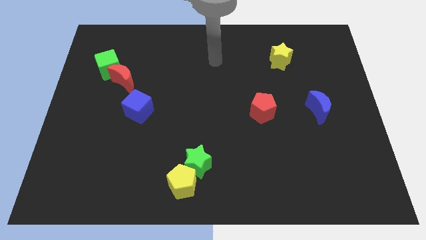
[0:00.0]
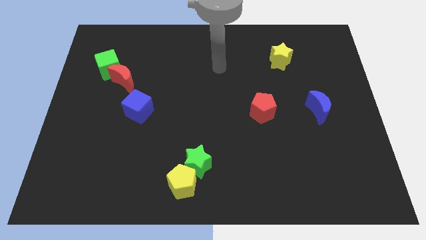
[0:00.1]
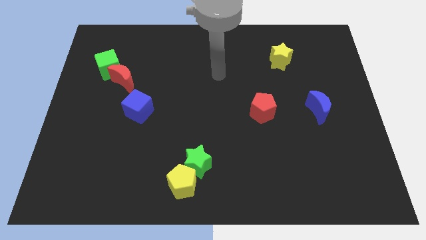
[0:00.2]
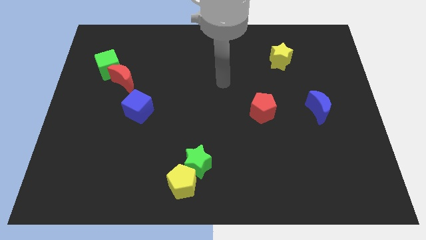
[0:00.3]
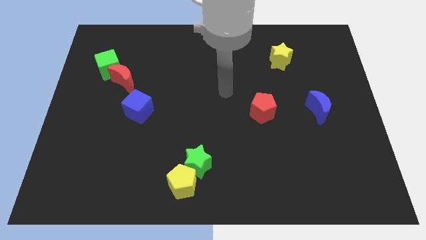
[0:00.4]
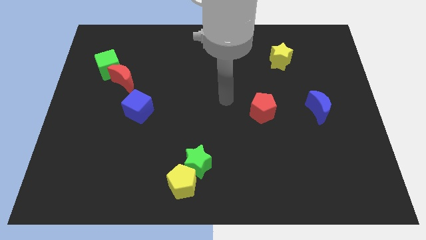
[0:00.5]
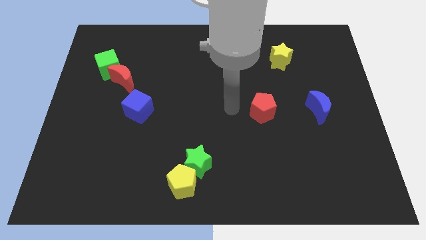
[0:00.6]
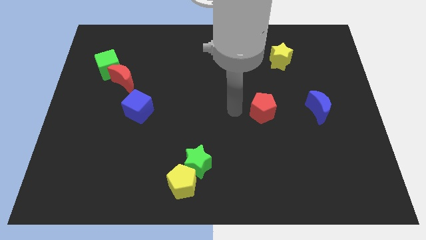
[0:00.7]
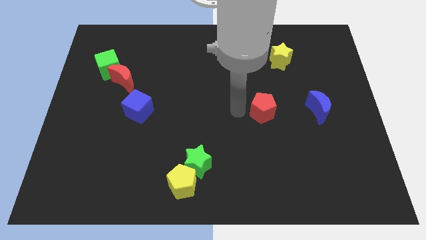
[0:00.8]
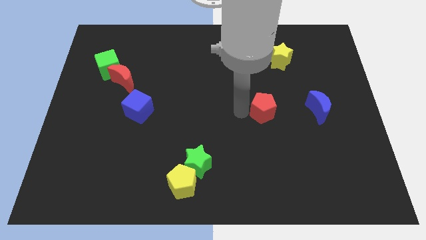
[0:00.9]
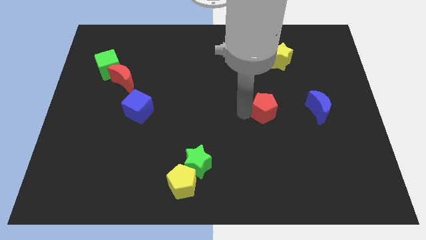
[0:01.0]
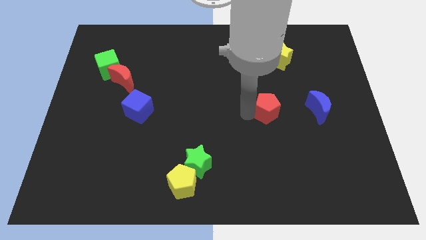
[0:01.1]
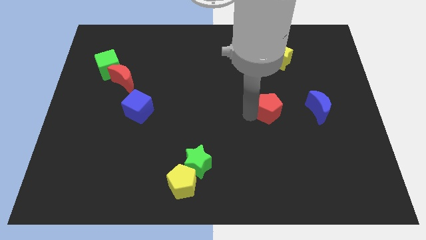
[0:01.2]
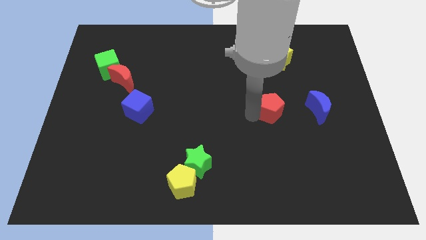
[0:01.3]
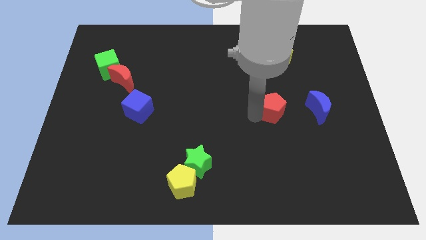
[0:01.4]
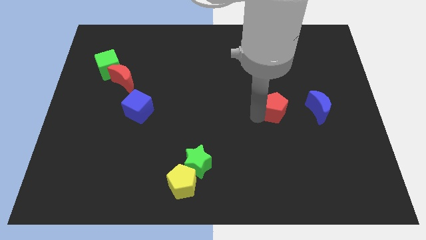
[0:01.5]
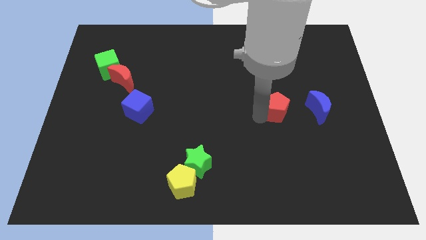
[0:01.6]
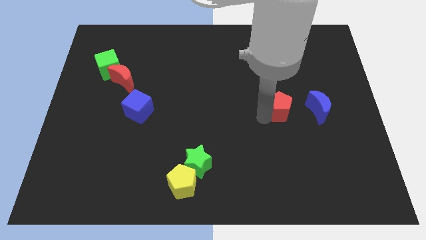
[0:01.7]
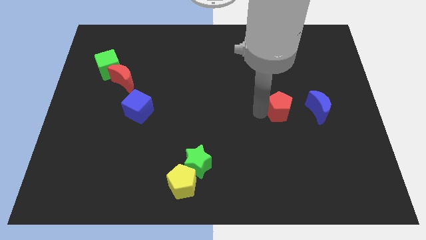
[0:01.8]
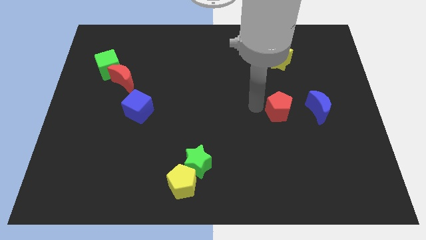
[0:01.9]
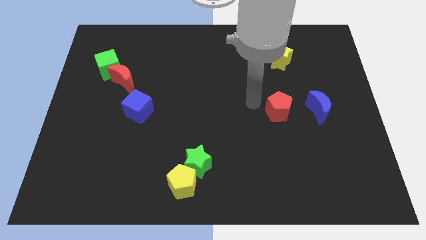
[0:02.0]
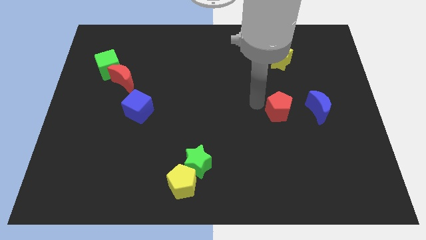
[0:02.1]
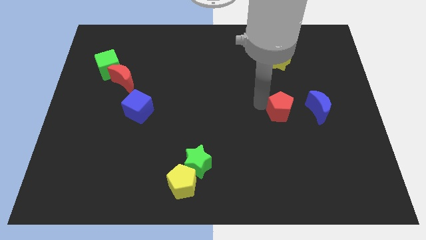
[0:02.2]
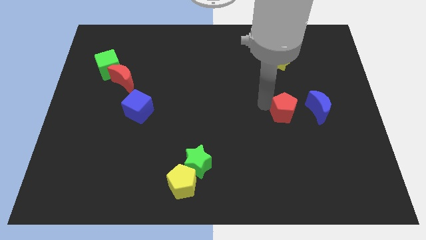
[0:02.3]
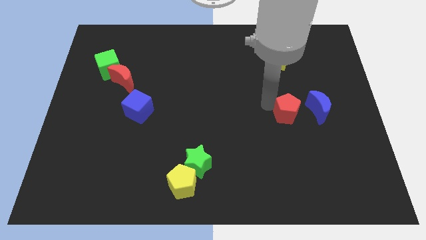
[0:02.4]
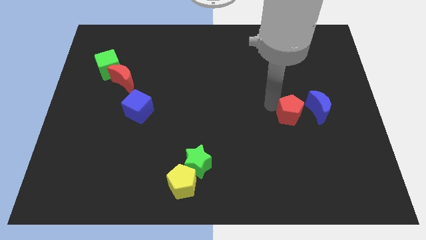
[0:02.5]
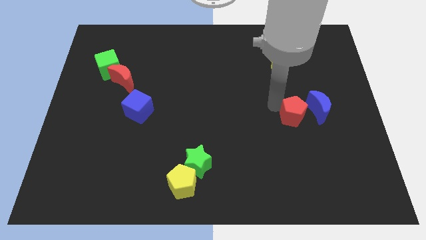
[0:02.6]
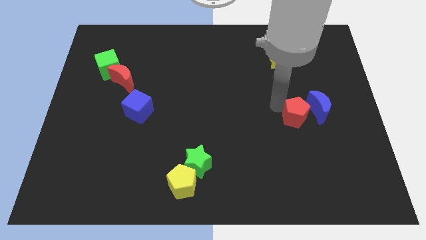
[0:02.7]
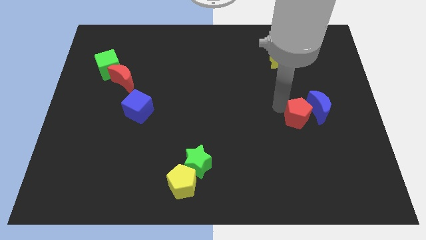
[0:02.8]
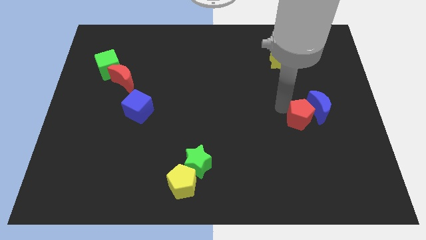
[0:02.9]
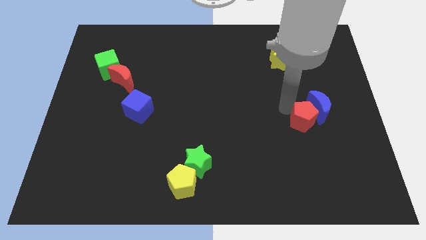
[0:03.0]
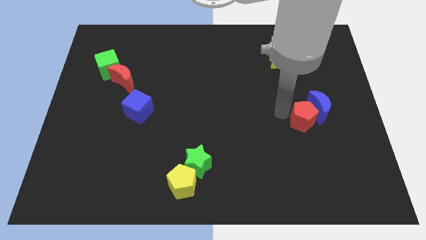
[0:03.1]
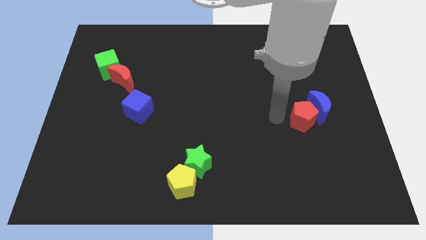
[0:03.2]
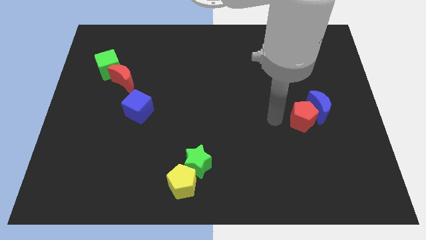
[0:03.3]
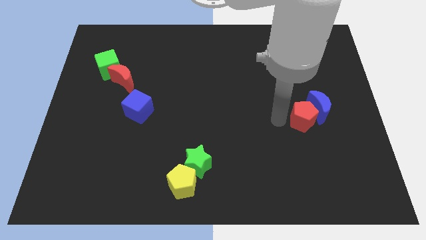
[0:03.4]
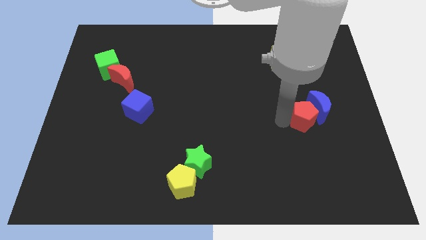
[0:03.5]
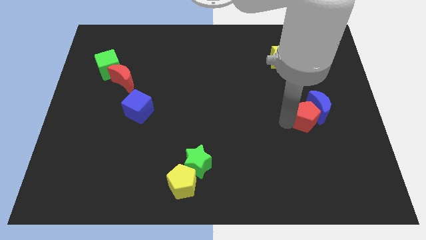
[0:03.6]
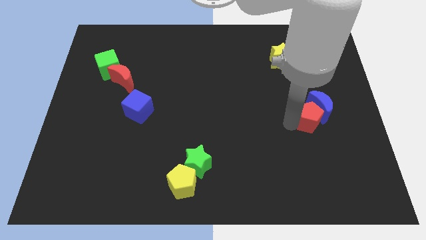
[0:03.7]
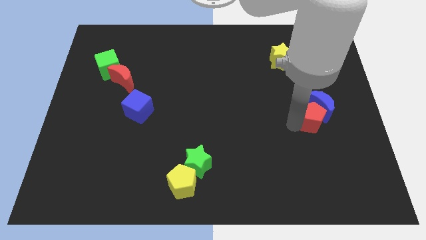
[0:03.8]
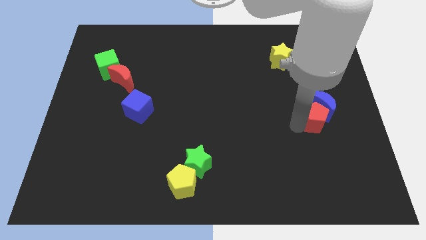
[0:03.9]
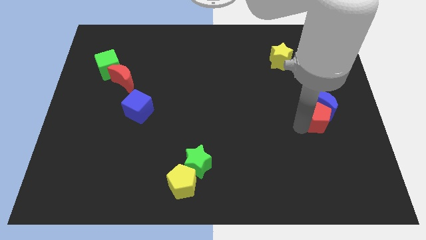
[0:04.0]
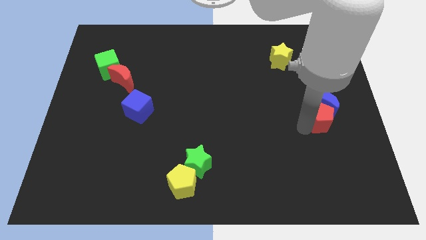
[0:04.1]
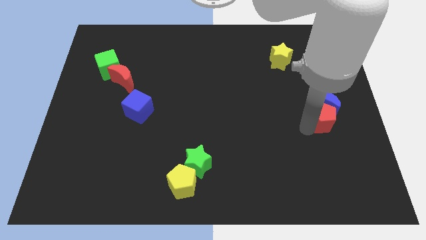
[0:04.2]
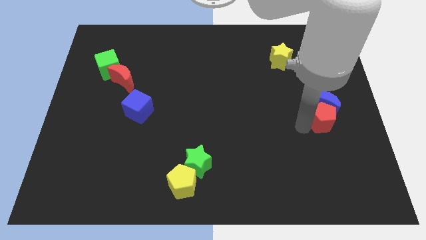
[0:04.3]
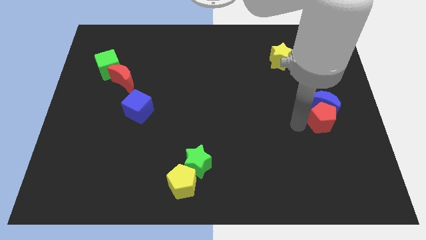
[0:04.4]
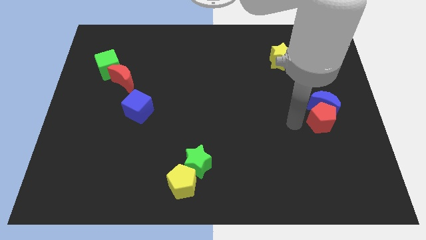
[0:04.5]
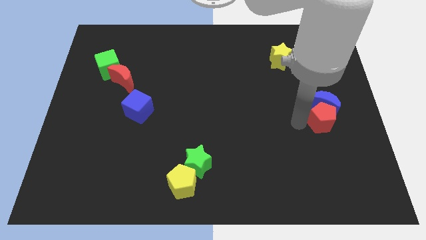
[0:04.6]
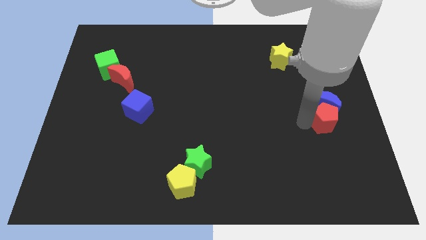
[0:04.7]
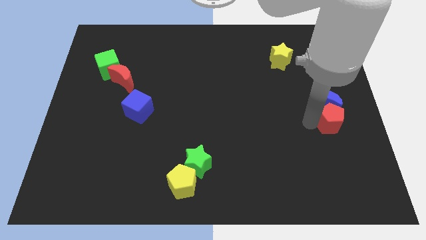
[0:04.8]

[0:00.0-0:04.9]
push the red pentagon to the right side

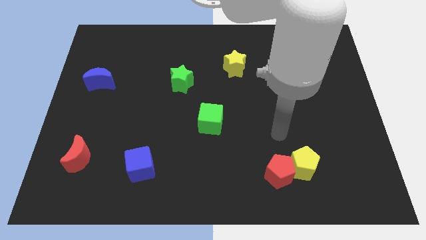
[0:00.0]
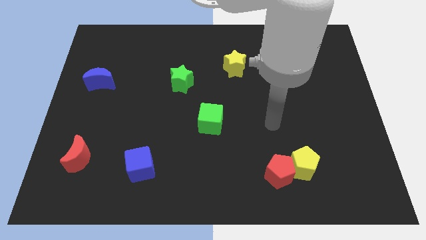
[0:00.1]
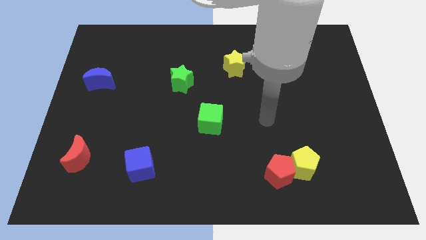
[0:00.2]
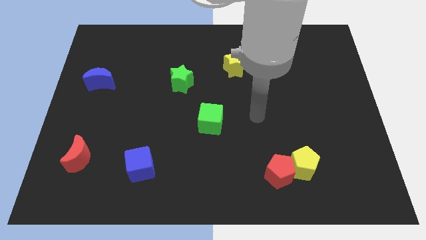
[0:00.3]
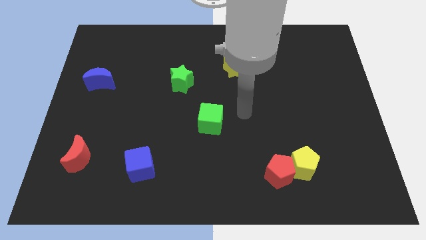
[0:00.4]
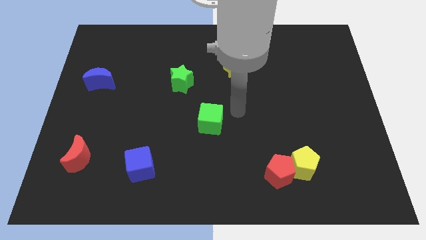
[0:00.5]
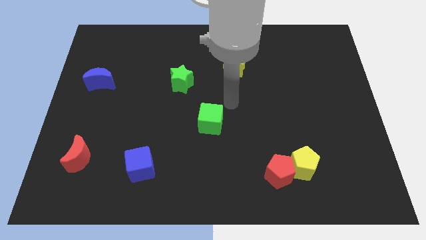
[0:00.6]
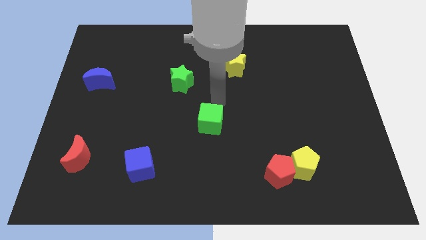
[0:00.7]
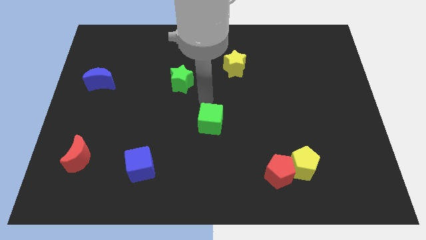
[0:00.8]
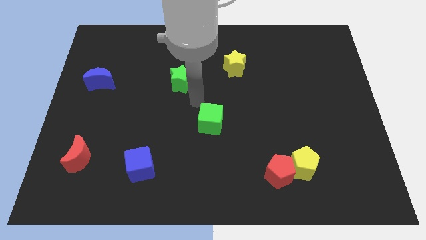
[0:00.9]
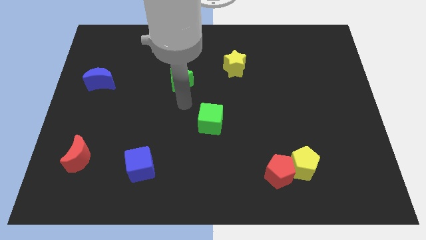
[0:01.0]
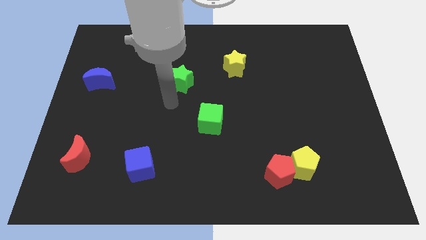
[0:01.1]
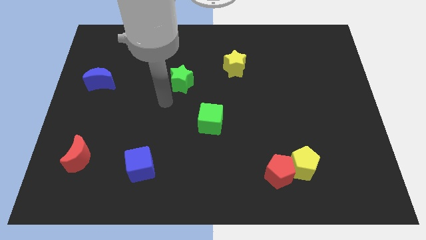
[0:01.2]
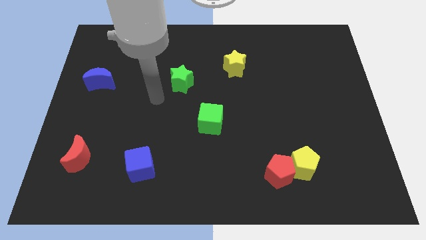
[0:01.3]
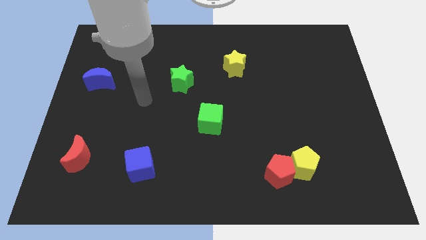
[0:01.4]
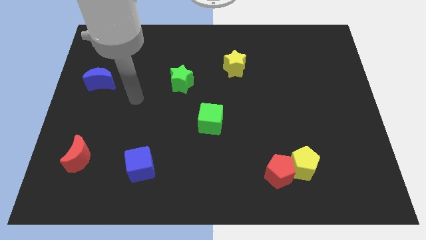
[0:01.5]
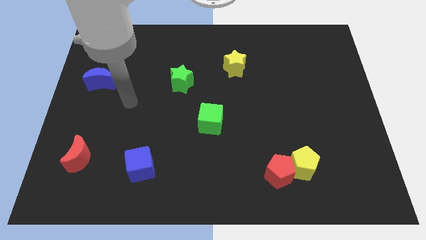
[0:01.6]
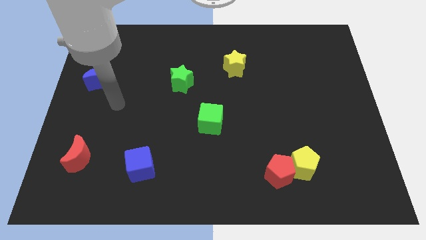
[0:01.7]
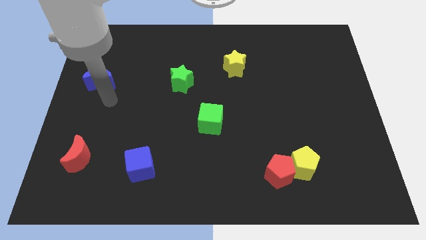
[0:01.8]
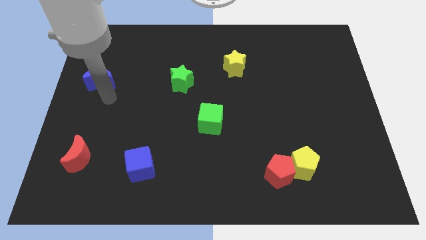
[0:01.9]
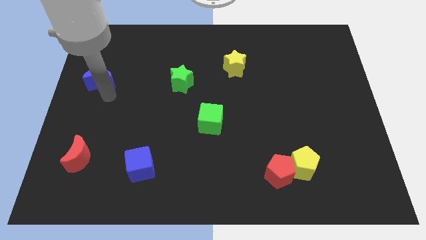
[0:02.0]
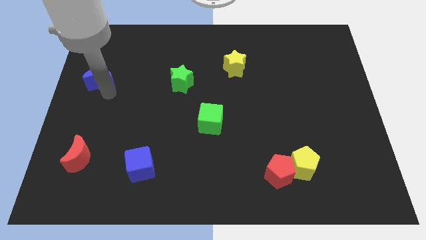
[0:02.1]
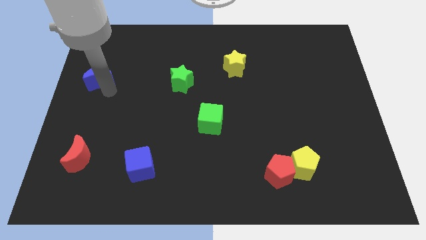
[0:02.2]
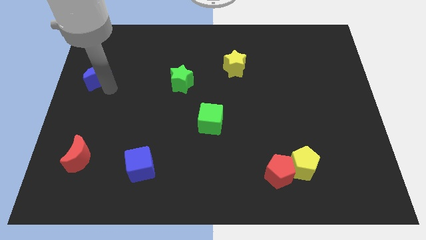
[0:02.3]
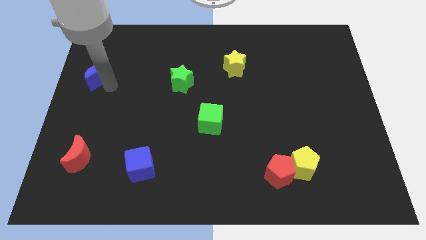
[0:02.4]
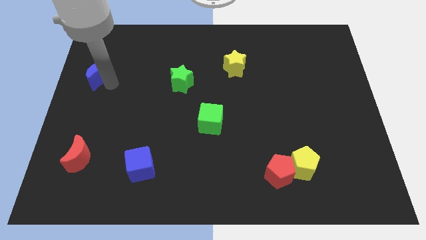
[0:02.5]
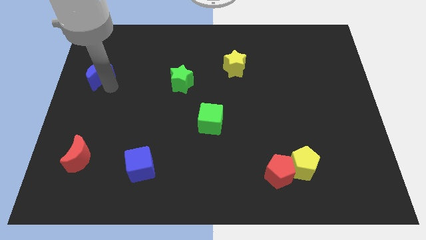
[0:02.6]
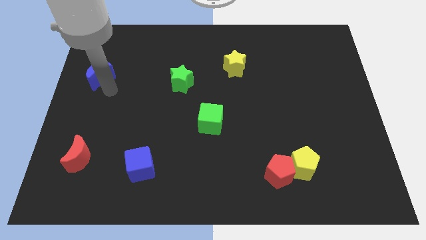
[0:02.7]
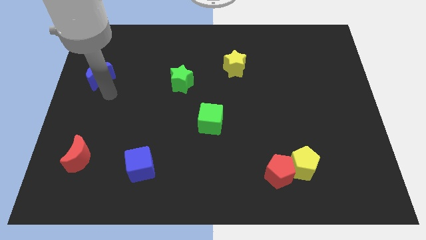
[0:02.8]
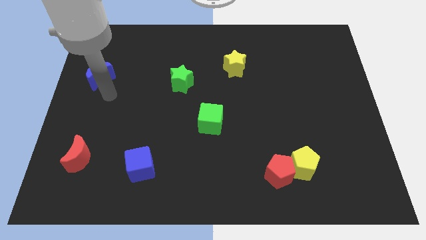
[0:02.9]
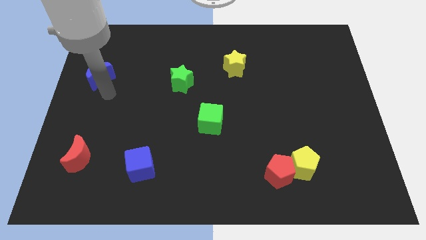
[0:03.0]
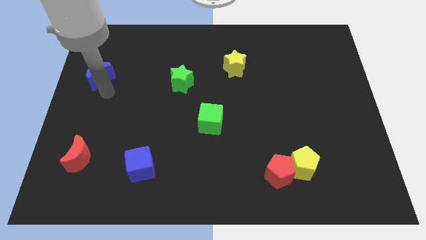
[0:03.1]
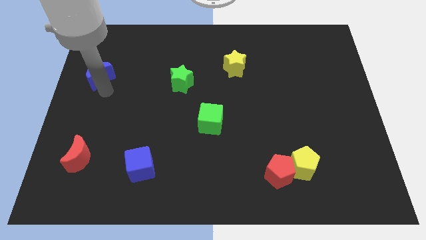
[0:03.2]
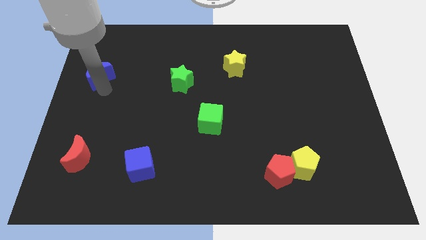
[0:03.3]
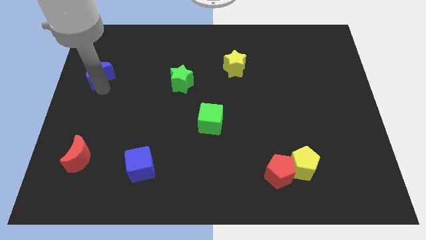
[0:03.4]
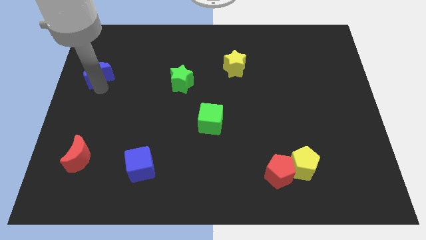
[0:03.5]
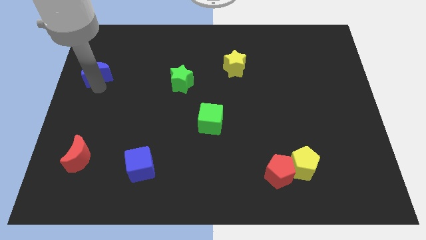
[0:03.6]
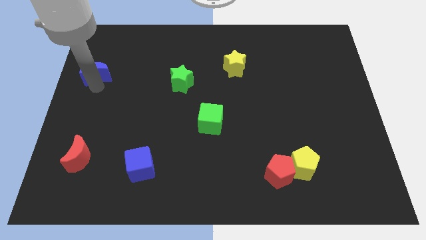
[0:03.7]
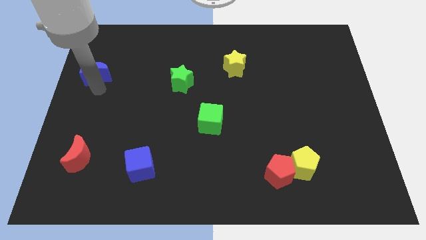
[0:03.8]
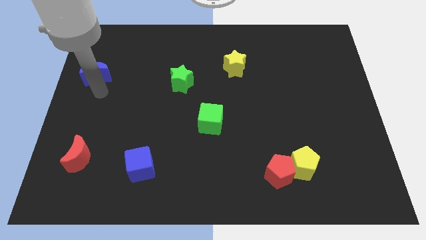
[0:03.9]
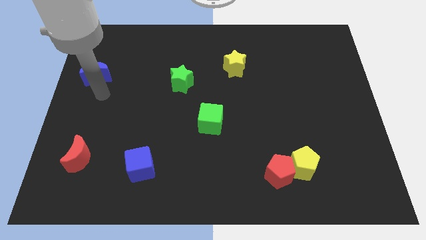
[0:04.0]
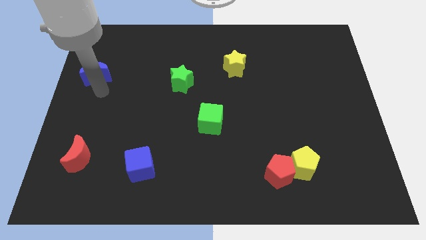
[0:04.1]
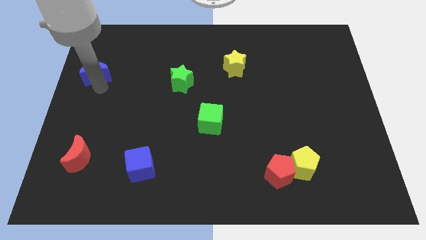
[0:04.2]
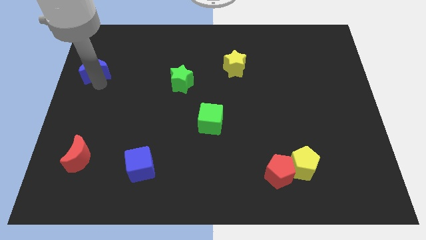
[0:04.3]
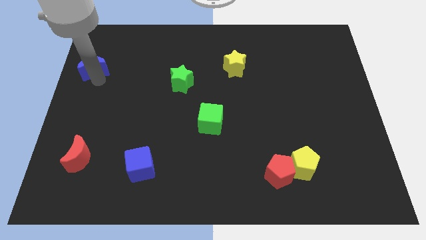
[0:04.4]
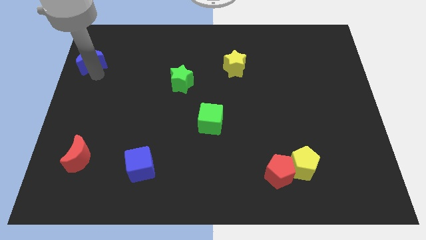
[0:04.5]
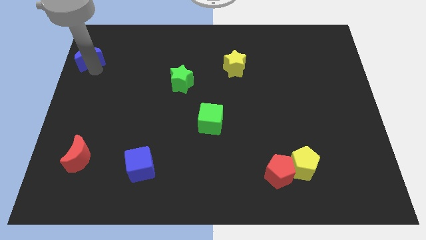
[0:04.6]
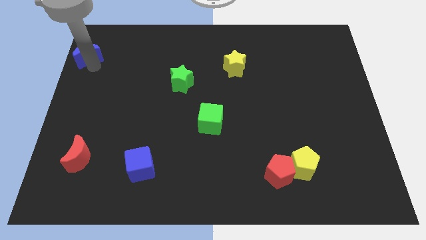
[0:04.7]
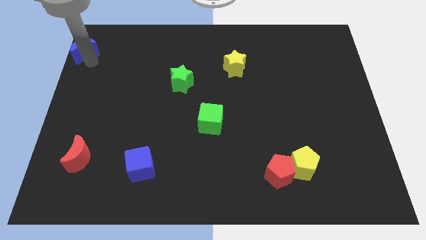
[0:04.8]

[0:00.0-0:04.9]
put the blue moon to the top left
